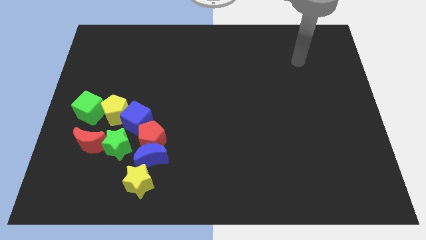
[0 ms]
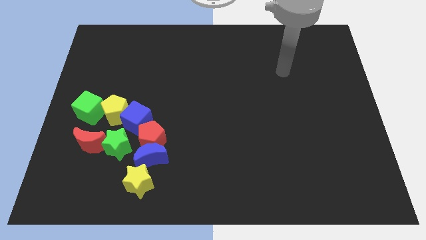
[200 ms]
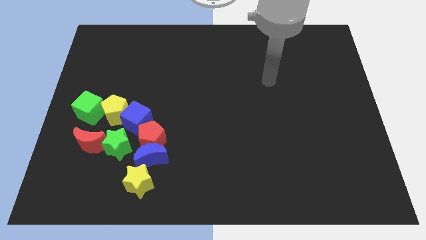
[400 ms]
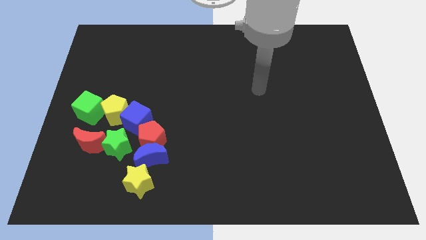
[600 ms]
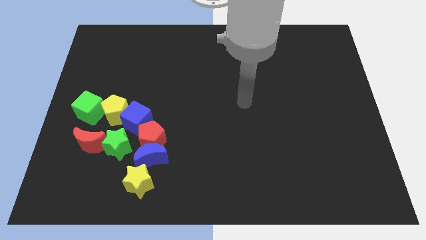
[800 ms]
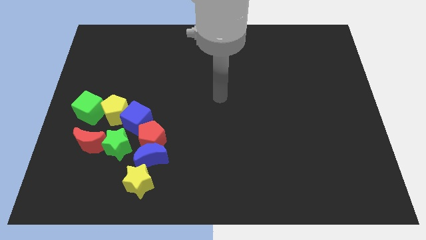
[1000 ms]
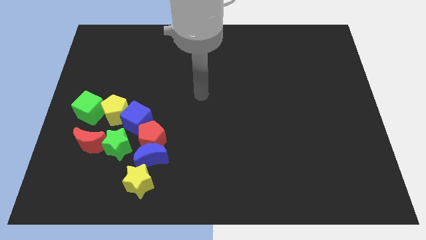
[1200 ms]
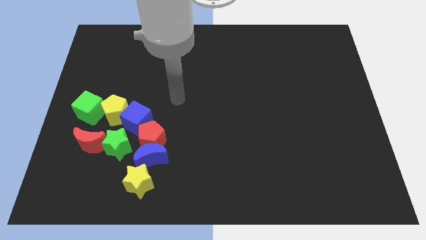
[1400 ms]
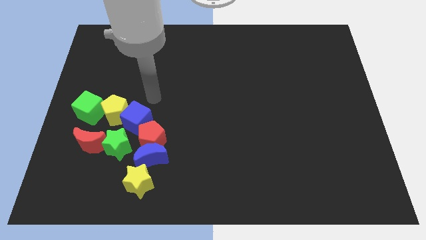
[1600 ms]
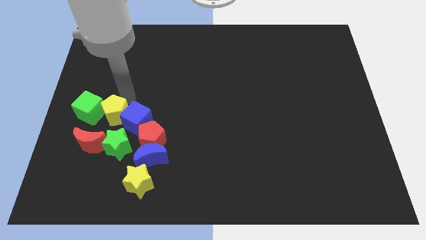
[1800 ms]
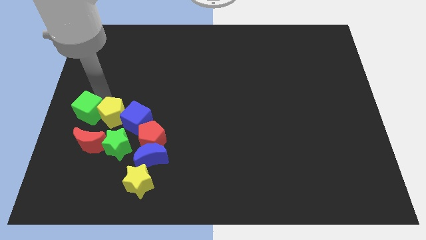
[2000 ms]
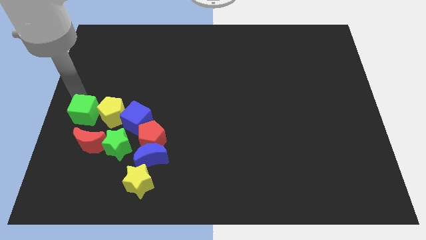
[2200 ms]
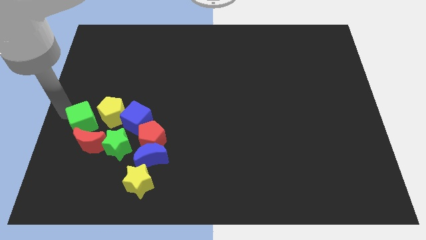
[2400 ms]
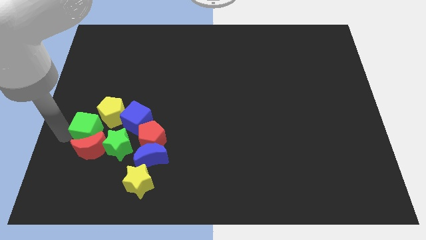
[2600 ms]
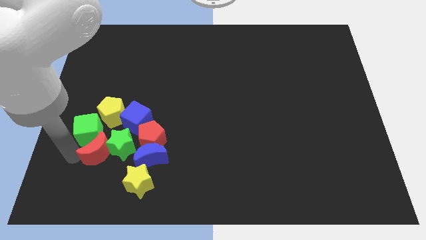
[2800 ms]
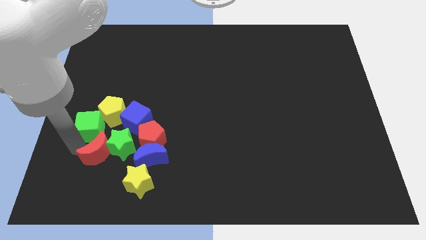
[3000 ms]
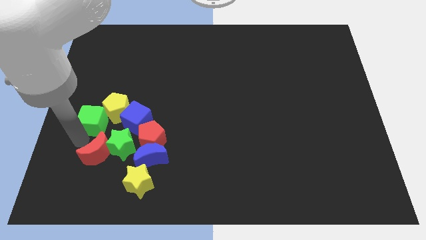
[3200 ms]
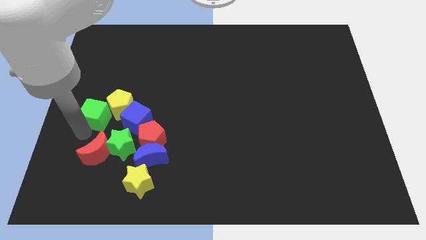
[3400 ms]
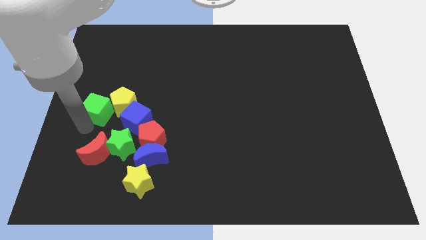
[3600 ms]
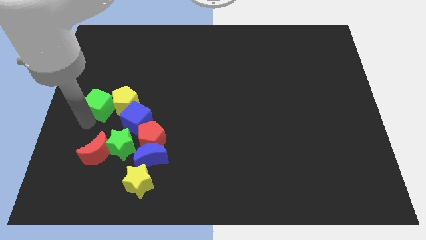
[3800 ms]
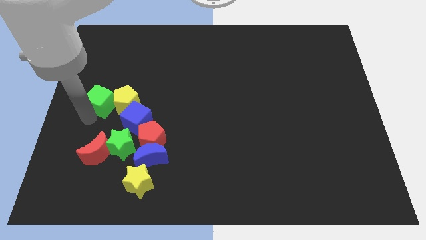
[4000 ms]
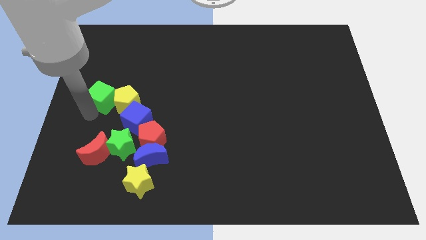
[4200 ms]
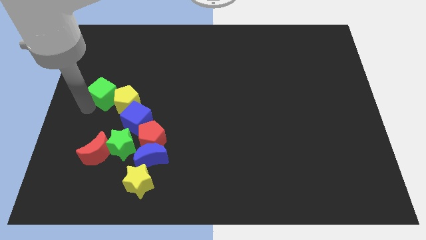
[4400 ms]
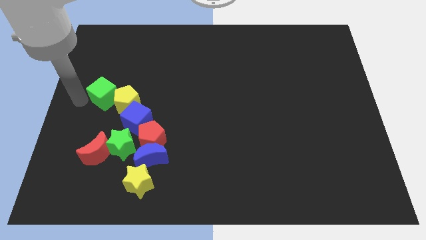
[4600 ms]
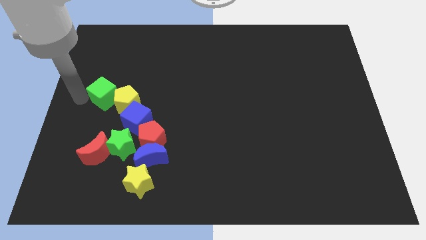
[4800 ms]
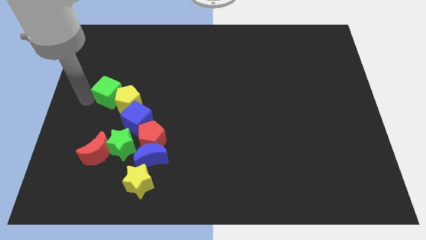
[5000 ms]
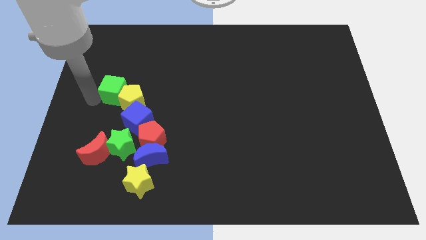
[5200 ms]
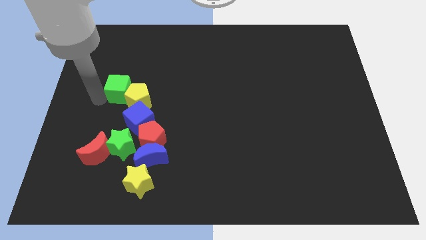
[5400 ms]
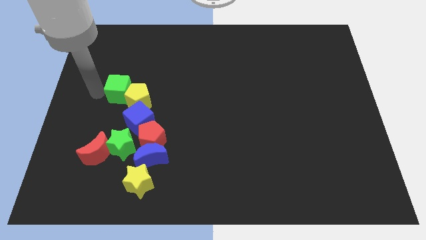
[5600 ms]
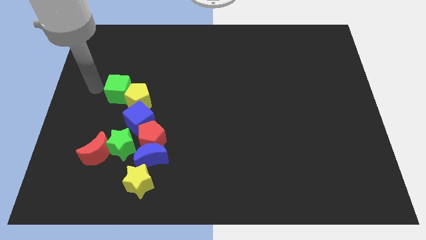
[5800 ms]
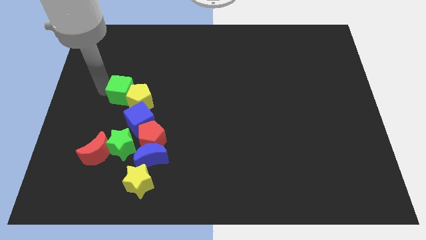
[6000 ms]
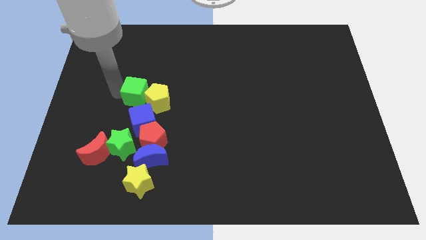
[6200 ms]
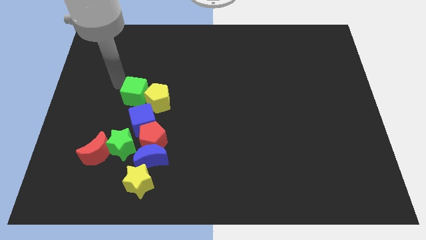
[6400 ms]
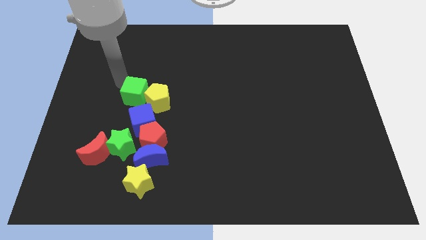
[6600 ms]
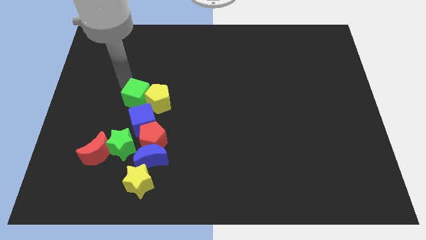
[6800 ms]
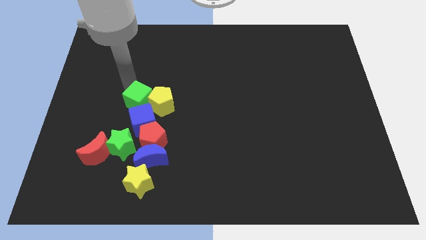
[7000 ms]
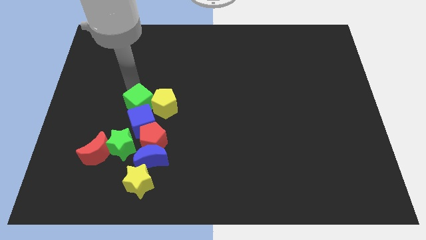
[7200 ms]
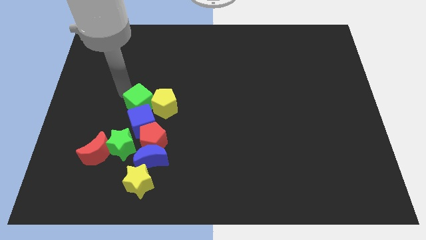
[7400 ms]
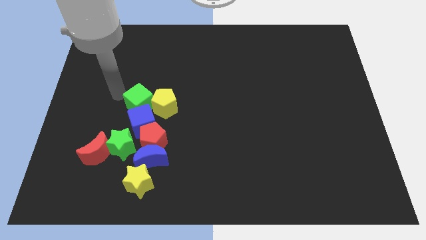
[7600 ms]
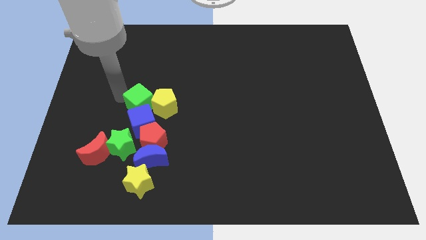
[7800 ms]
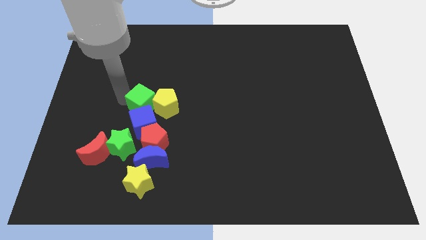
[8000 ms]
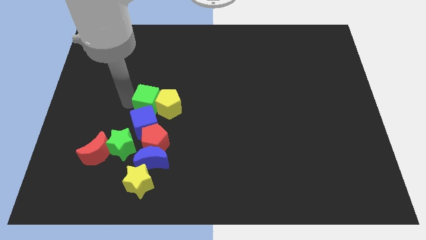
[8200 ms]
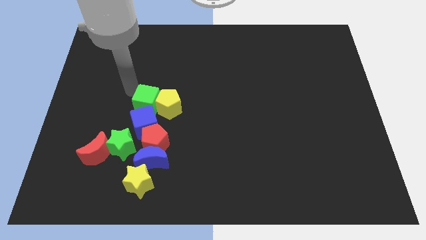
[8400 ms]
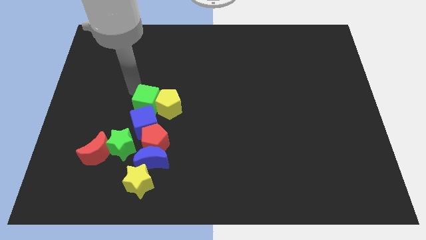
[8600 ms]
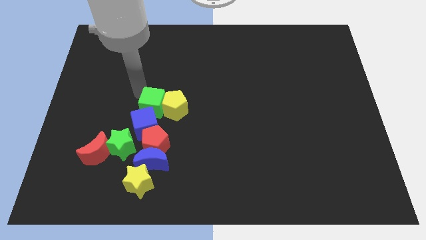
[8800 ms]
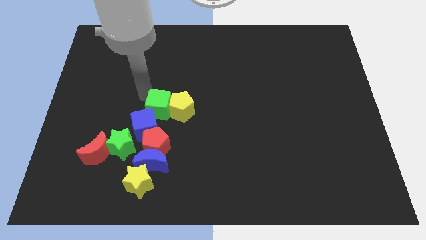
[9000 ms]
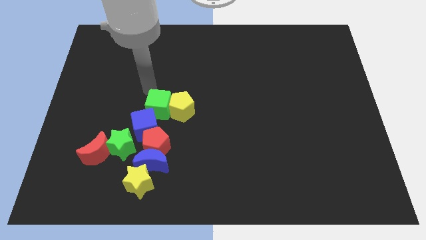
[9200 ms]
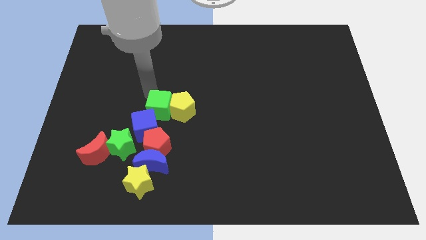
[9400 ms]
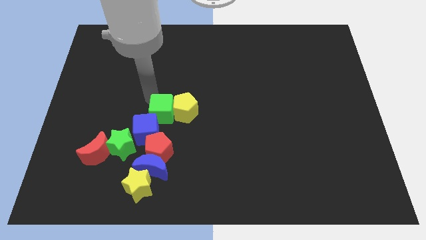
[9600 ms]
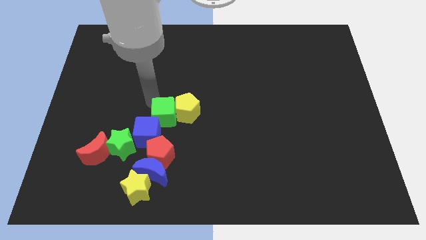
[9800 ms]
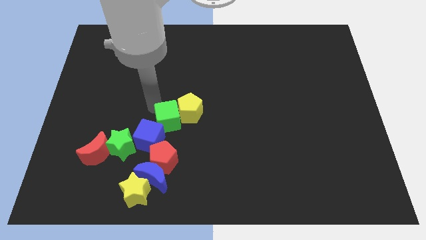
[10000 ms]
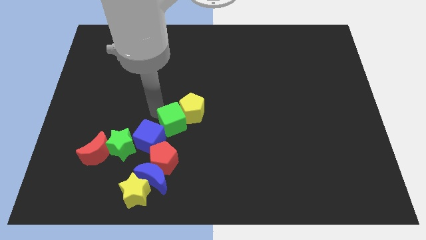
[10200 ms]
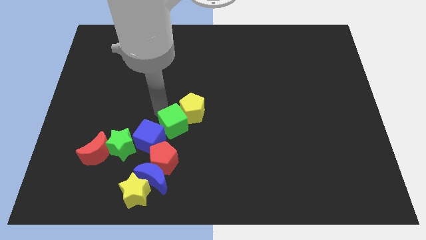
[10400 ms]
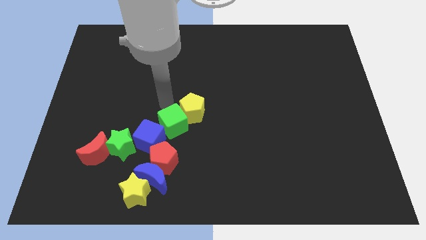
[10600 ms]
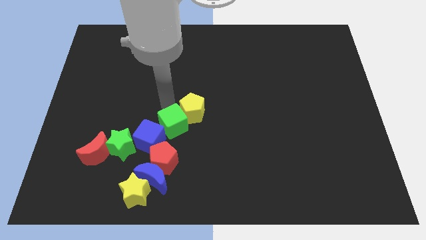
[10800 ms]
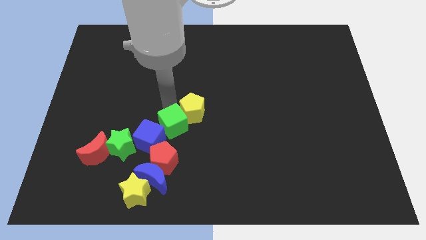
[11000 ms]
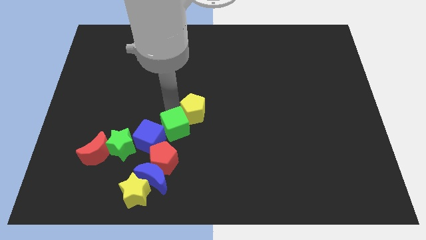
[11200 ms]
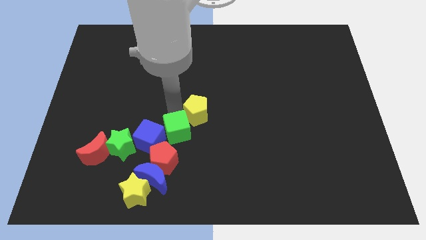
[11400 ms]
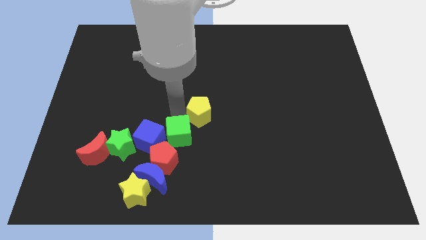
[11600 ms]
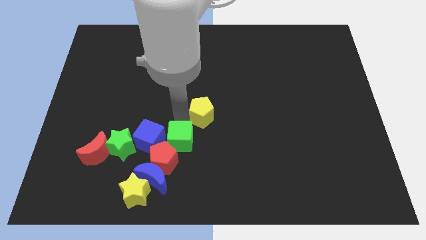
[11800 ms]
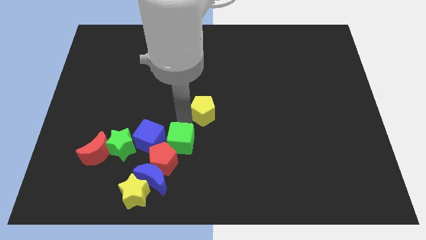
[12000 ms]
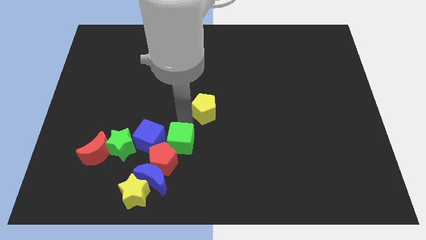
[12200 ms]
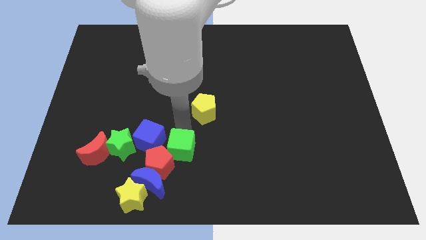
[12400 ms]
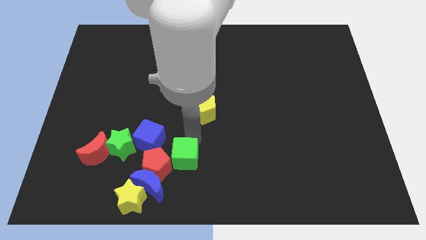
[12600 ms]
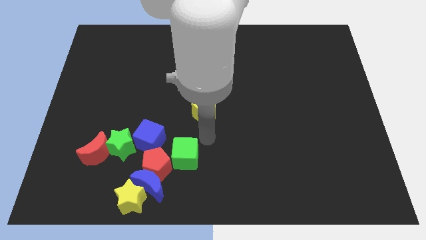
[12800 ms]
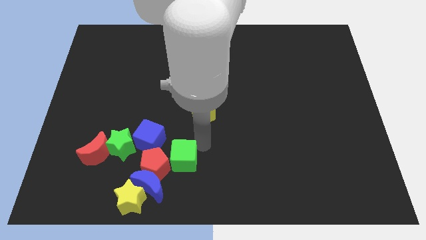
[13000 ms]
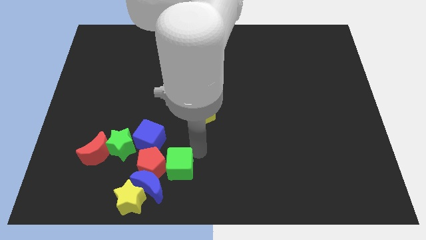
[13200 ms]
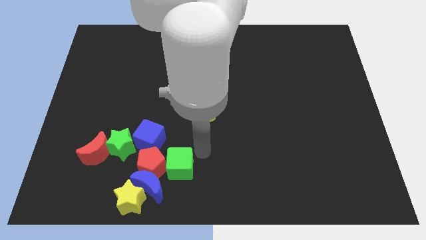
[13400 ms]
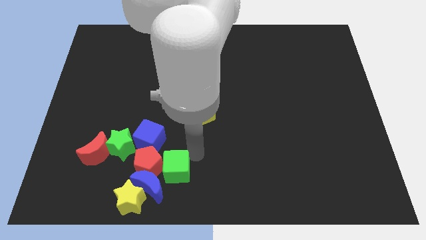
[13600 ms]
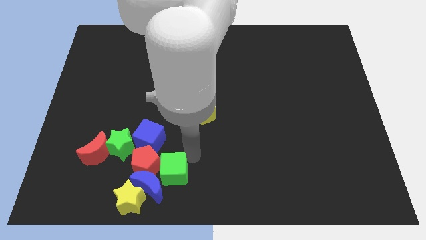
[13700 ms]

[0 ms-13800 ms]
put the green cube close to the blue moon
